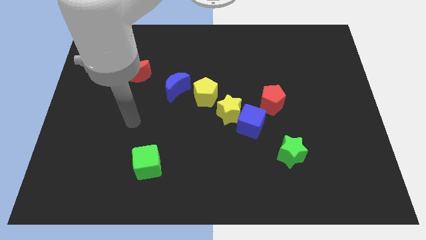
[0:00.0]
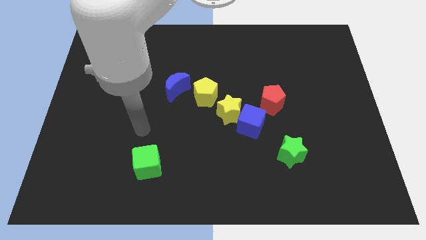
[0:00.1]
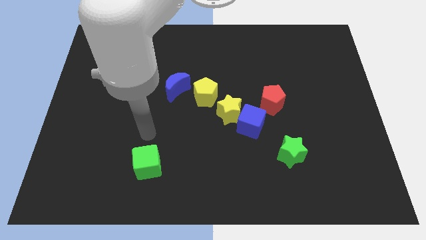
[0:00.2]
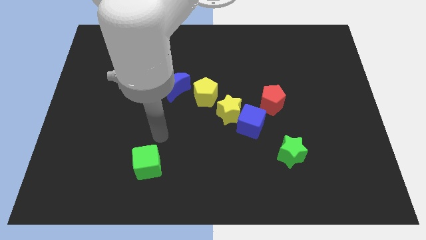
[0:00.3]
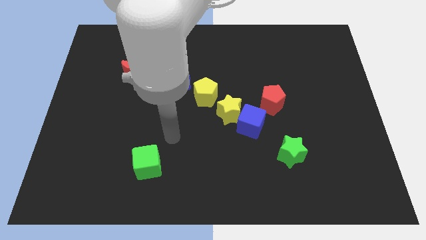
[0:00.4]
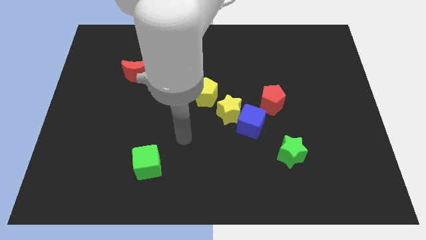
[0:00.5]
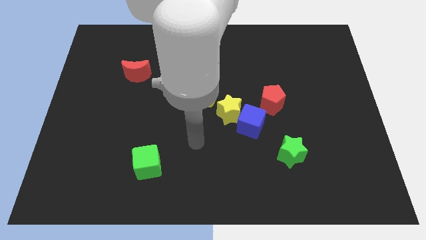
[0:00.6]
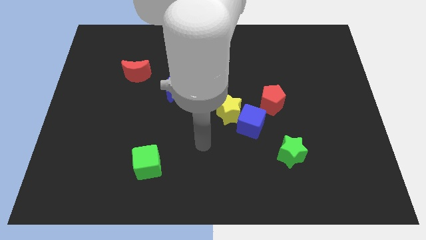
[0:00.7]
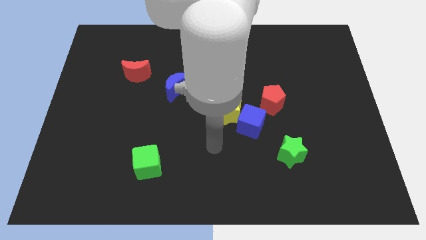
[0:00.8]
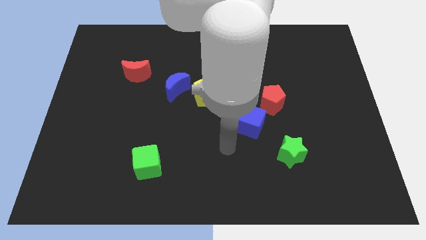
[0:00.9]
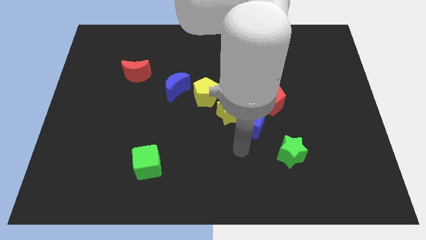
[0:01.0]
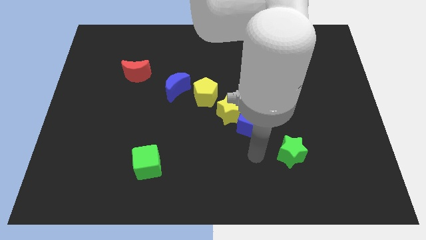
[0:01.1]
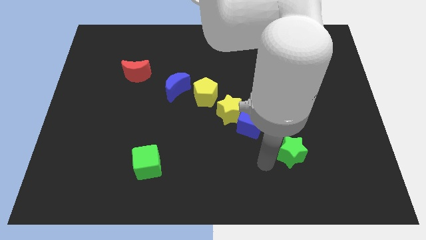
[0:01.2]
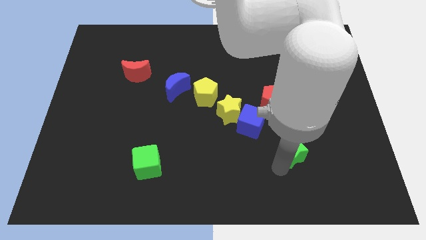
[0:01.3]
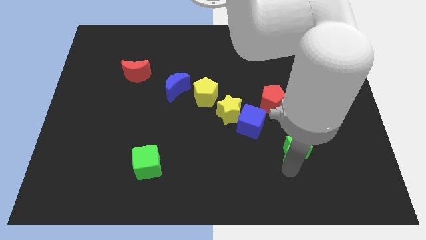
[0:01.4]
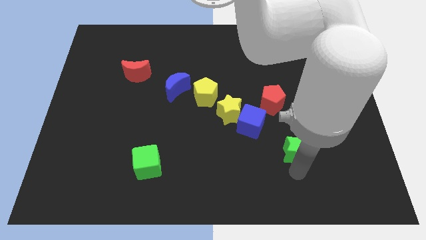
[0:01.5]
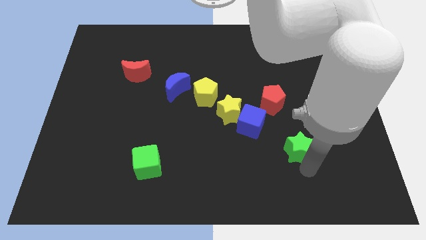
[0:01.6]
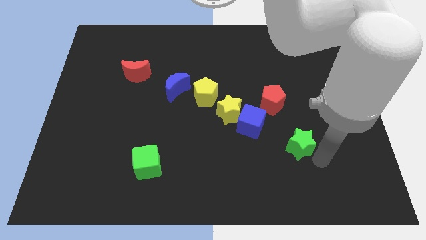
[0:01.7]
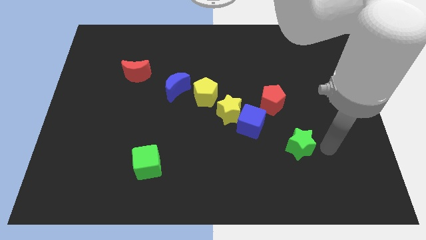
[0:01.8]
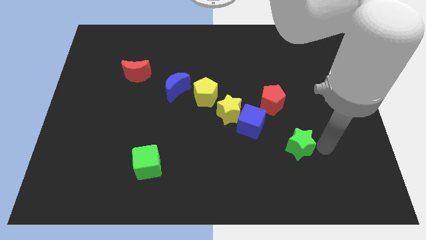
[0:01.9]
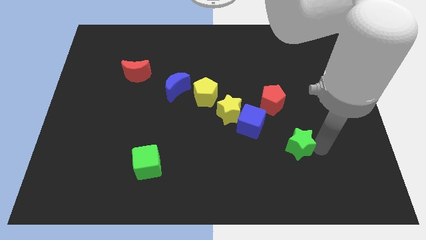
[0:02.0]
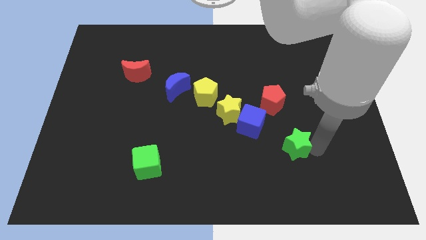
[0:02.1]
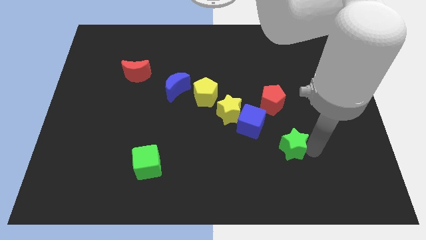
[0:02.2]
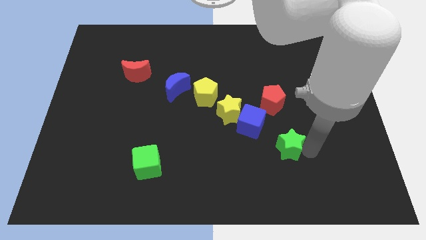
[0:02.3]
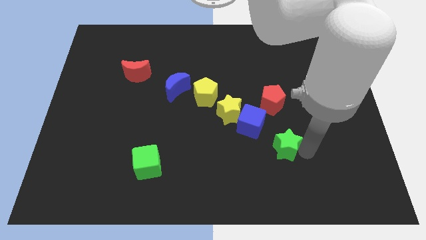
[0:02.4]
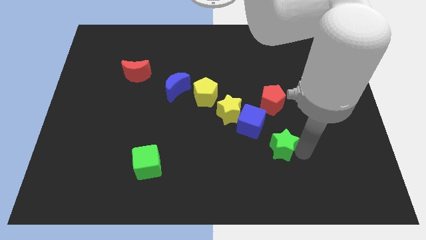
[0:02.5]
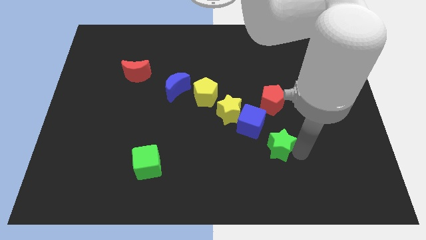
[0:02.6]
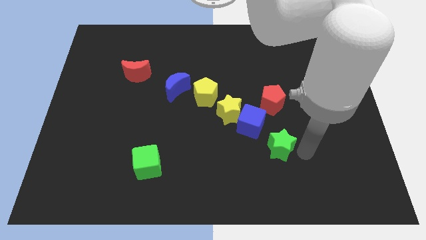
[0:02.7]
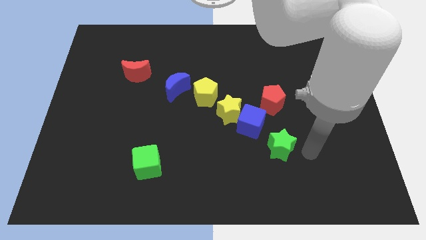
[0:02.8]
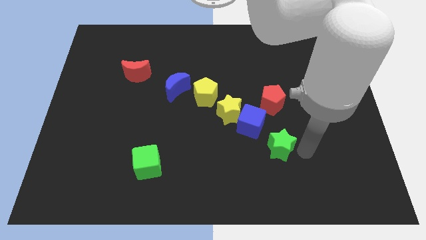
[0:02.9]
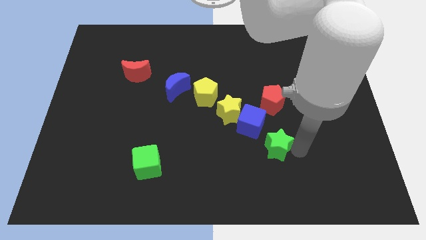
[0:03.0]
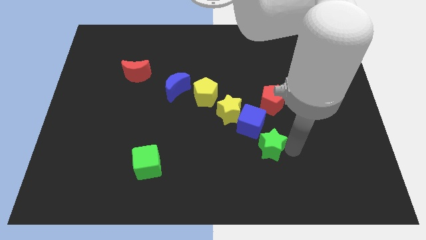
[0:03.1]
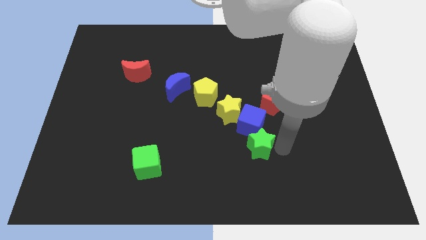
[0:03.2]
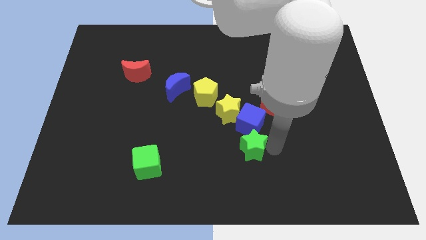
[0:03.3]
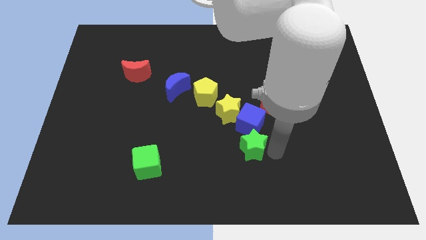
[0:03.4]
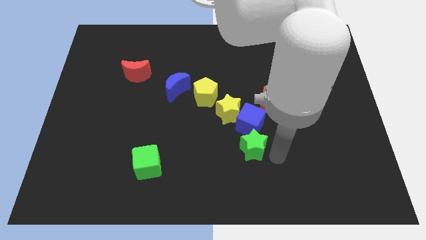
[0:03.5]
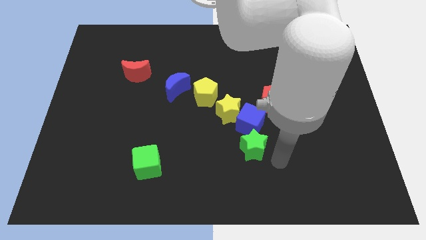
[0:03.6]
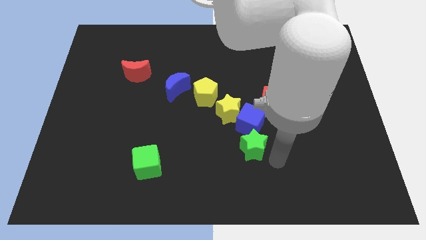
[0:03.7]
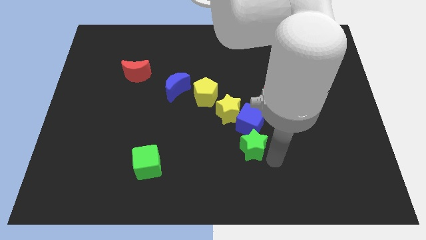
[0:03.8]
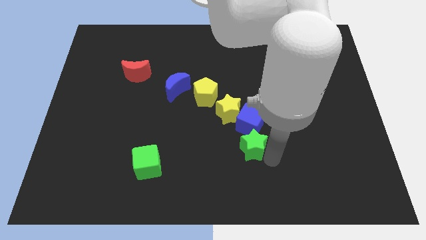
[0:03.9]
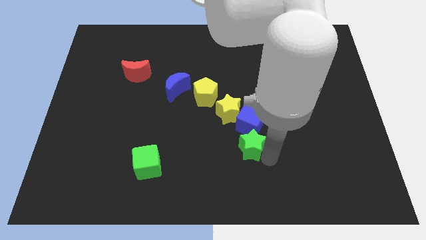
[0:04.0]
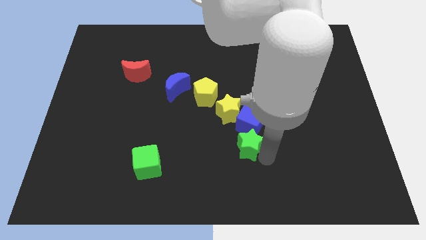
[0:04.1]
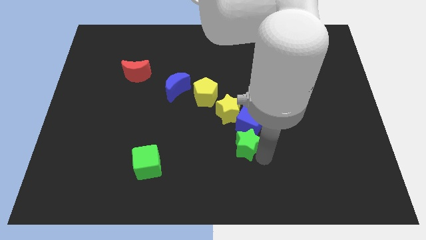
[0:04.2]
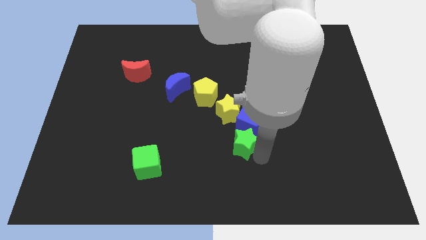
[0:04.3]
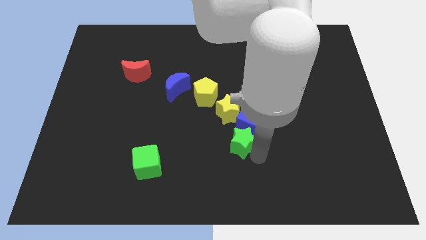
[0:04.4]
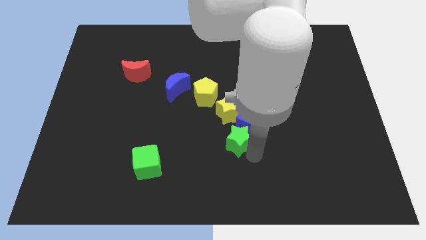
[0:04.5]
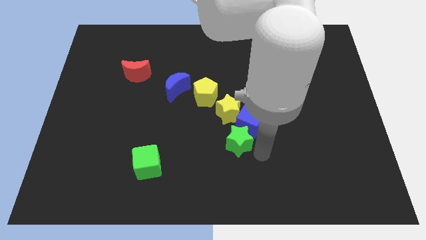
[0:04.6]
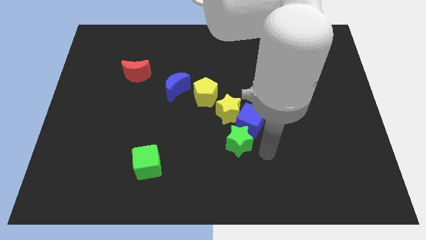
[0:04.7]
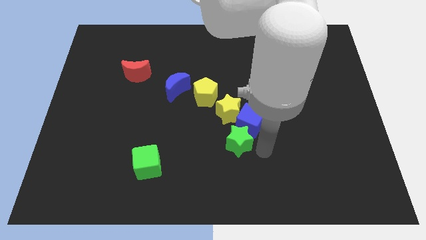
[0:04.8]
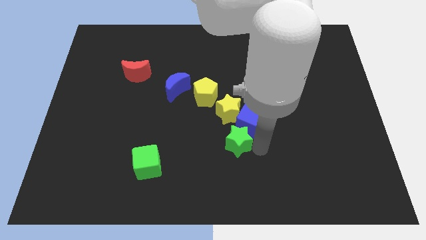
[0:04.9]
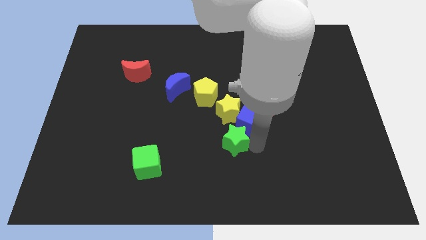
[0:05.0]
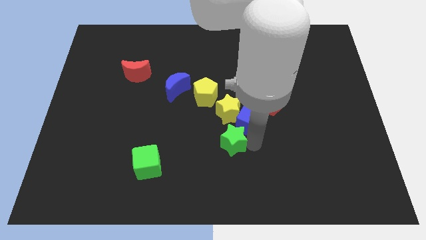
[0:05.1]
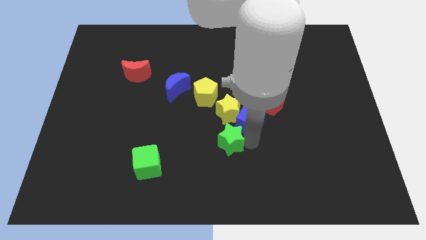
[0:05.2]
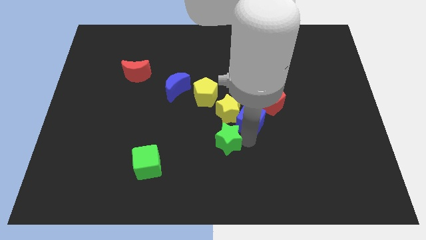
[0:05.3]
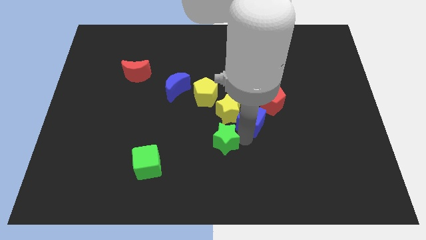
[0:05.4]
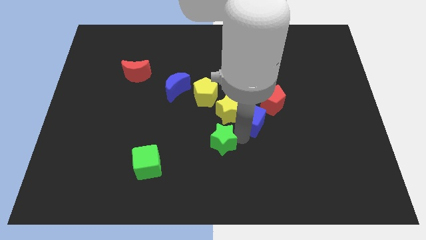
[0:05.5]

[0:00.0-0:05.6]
move the green star to the bottom left of the yellow star

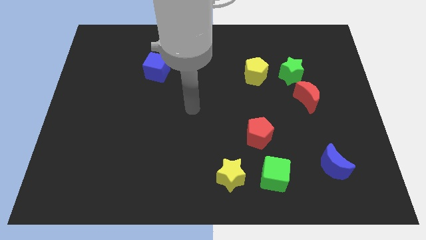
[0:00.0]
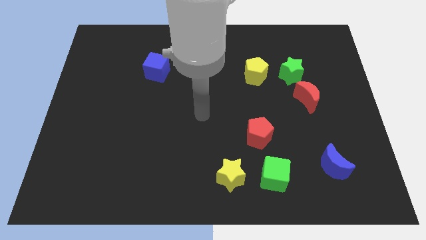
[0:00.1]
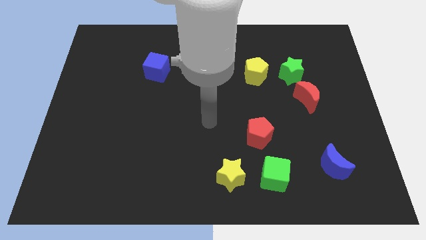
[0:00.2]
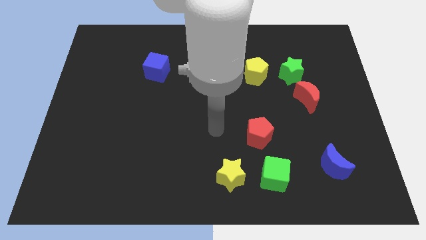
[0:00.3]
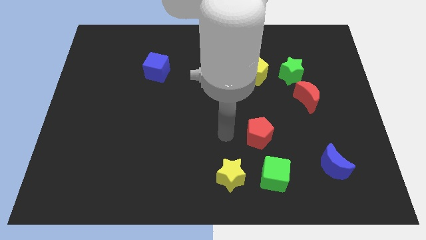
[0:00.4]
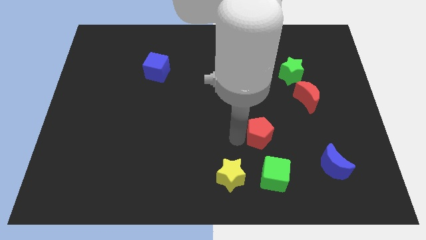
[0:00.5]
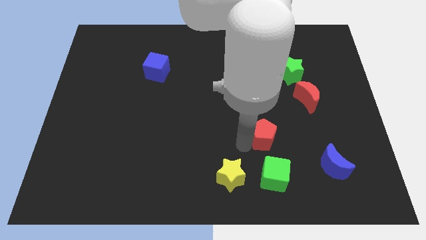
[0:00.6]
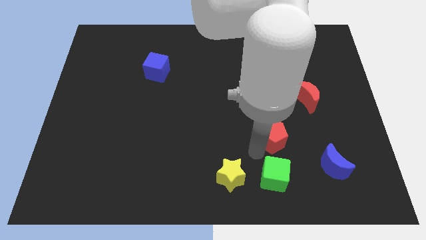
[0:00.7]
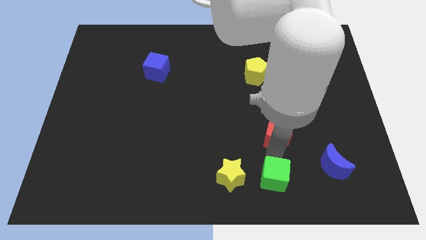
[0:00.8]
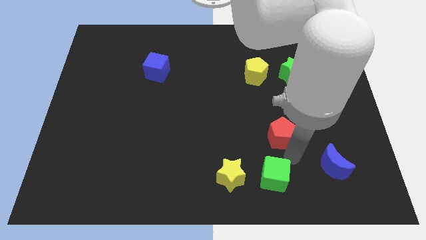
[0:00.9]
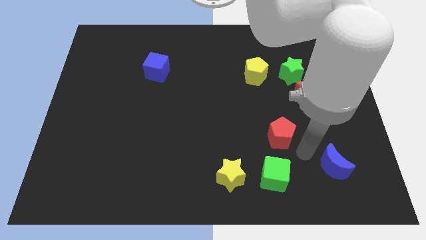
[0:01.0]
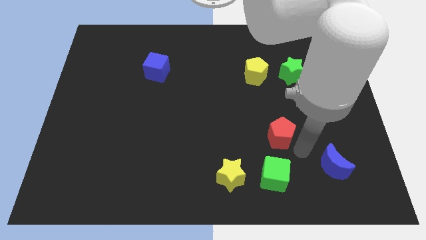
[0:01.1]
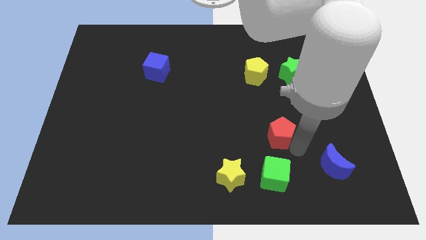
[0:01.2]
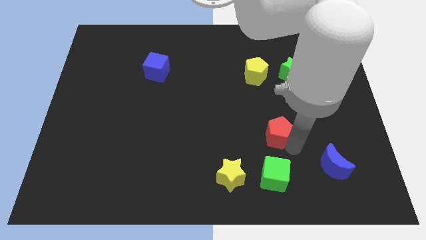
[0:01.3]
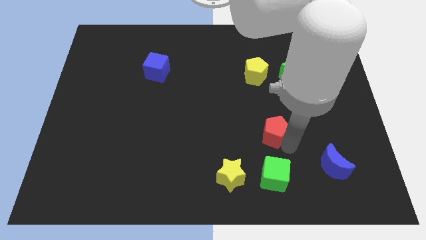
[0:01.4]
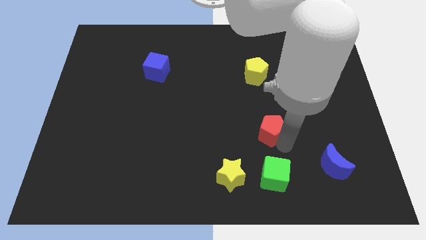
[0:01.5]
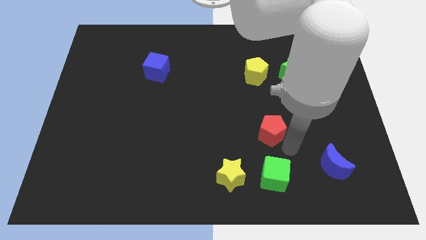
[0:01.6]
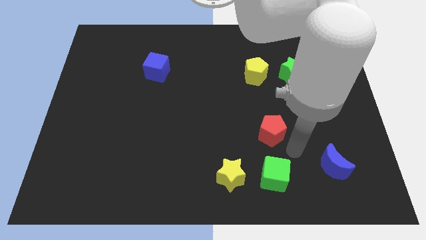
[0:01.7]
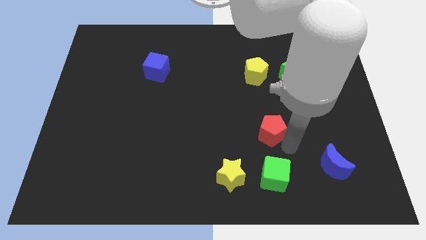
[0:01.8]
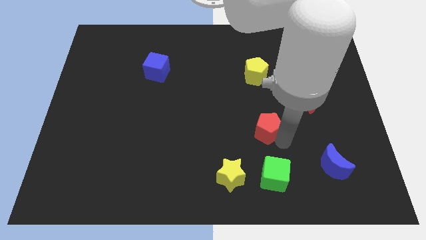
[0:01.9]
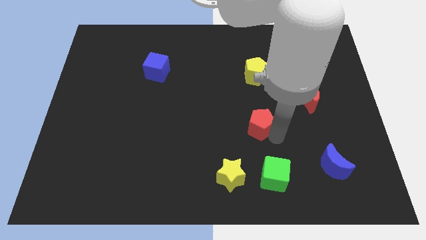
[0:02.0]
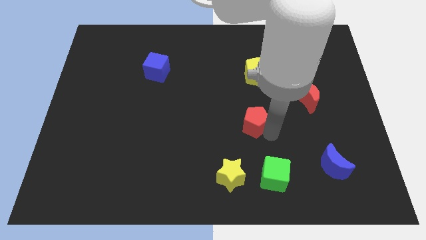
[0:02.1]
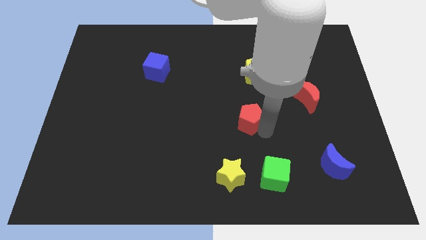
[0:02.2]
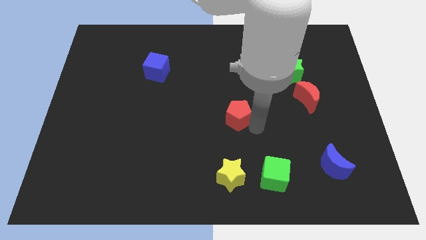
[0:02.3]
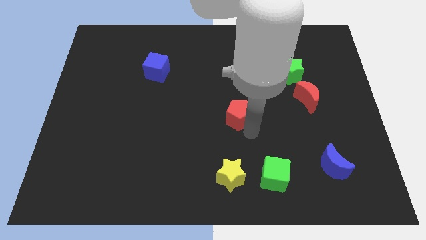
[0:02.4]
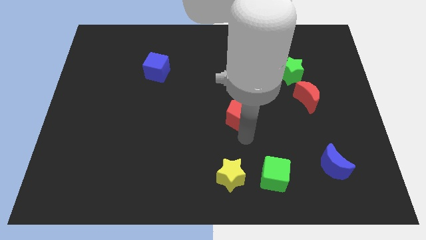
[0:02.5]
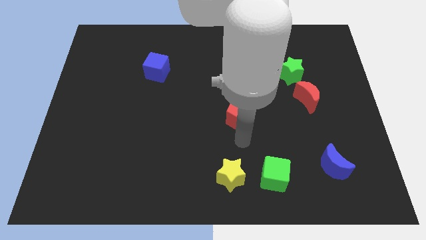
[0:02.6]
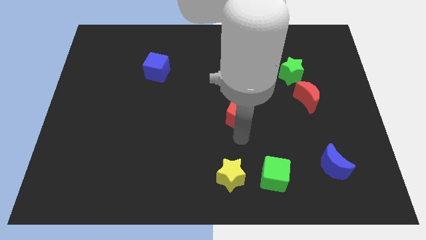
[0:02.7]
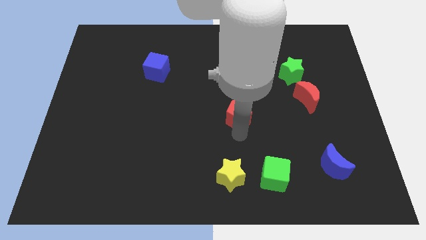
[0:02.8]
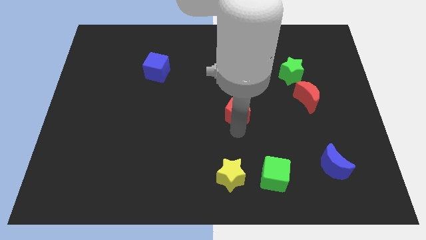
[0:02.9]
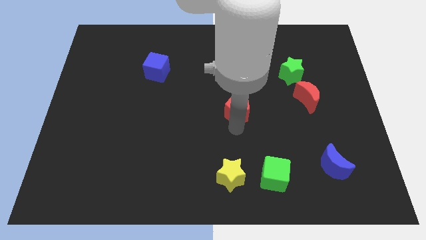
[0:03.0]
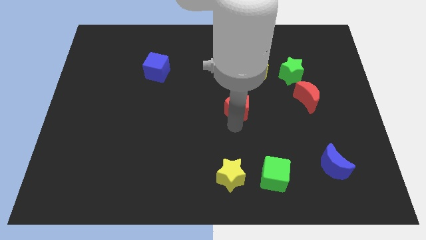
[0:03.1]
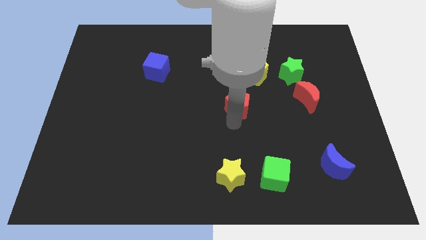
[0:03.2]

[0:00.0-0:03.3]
move the red pentagon diagonally down and to the left of the yellow pentagon
